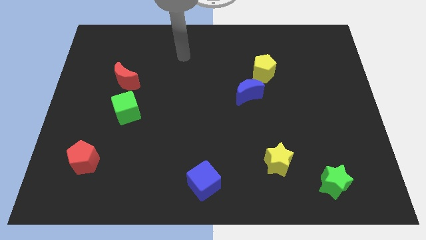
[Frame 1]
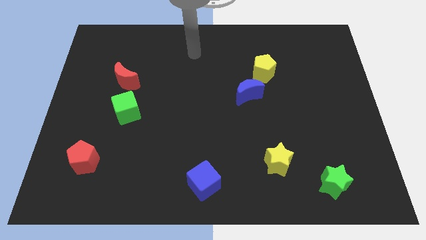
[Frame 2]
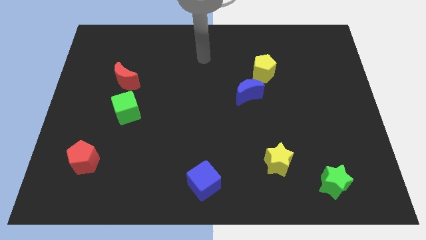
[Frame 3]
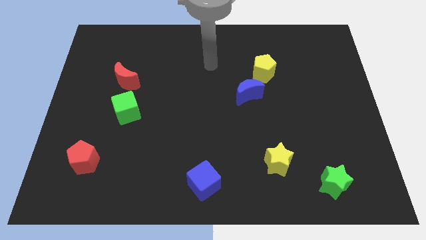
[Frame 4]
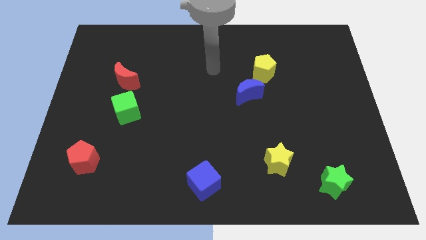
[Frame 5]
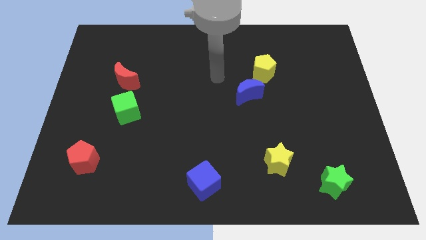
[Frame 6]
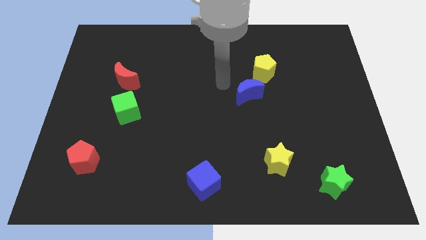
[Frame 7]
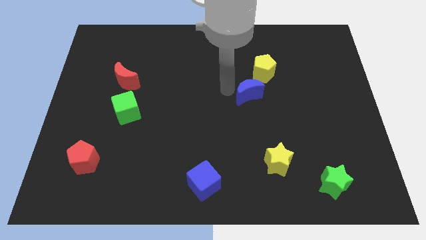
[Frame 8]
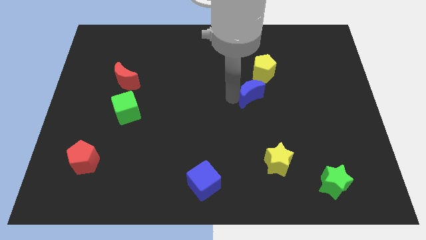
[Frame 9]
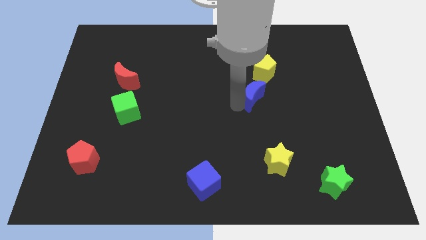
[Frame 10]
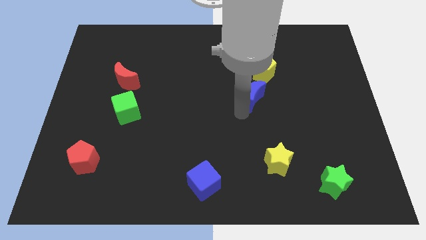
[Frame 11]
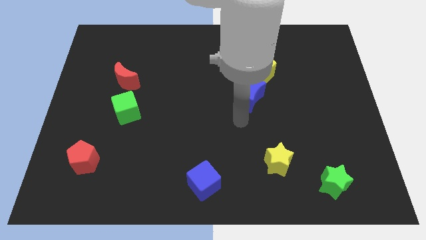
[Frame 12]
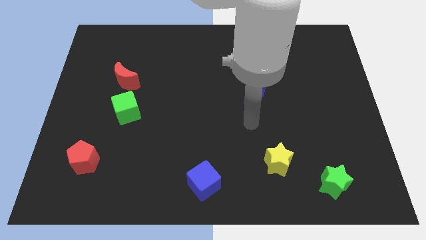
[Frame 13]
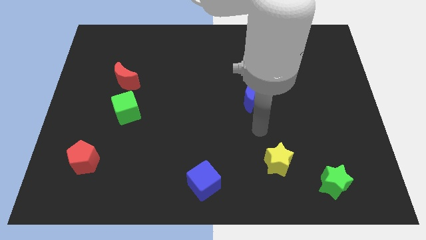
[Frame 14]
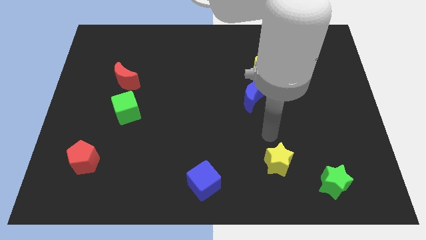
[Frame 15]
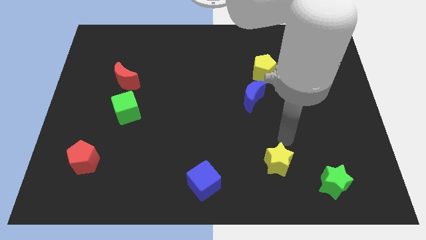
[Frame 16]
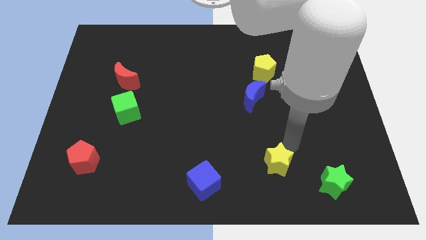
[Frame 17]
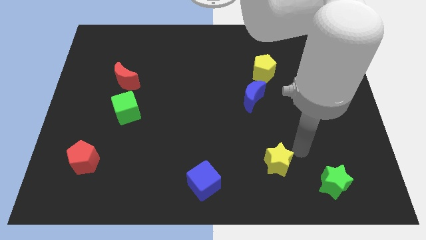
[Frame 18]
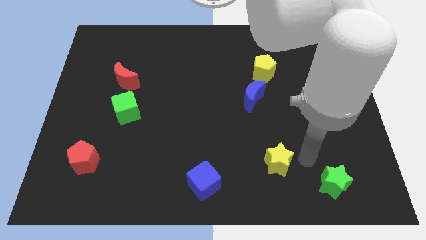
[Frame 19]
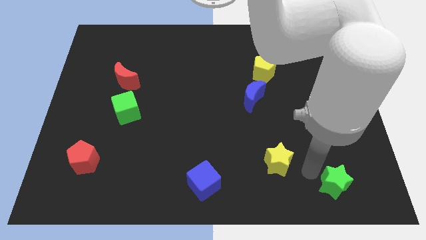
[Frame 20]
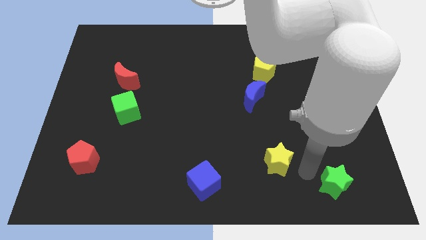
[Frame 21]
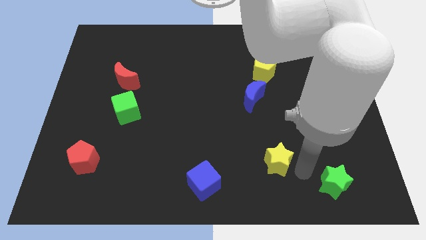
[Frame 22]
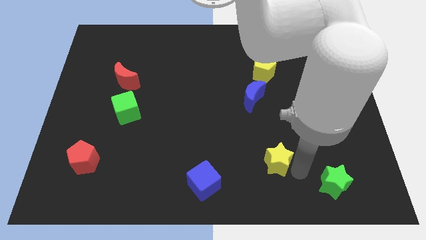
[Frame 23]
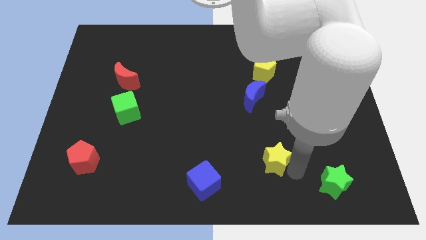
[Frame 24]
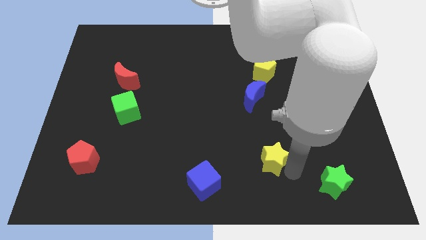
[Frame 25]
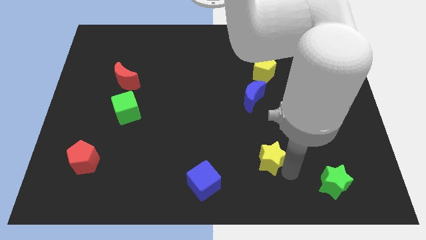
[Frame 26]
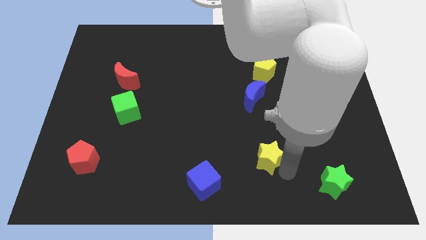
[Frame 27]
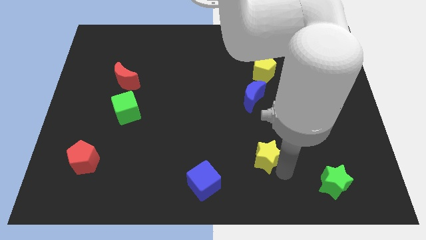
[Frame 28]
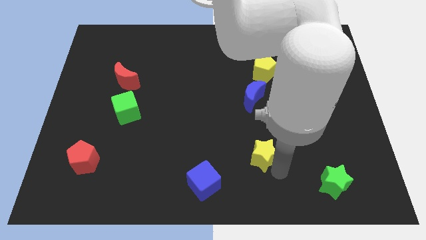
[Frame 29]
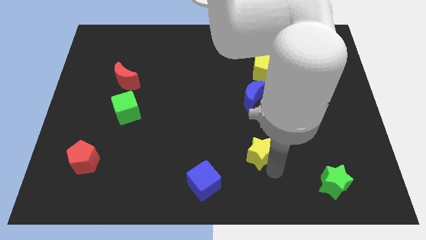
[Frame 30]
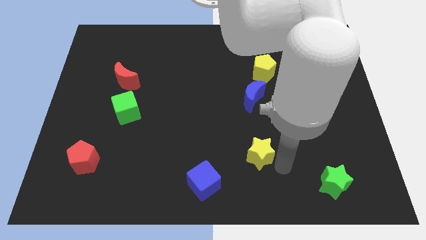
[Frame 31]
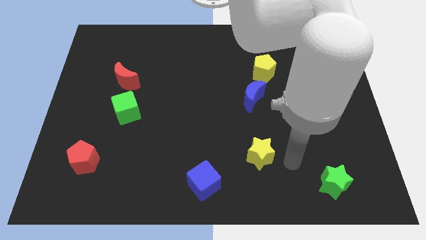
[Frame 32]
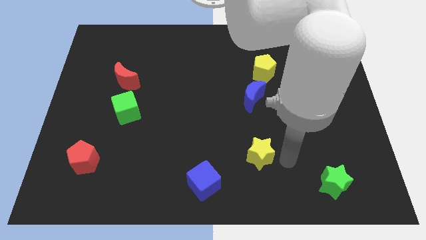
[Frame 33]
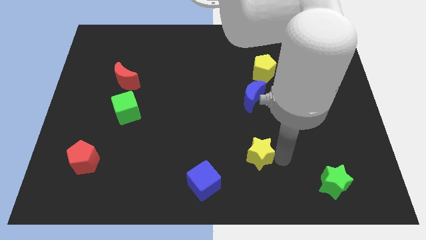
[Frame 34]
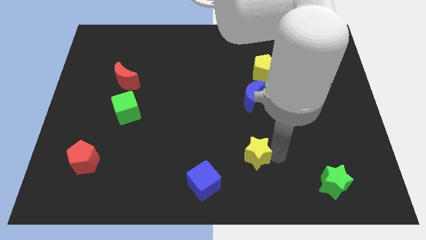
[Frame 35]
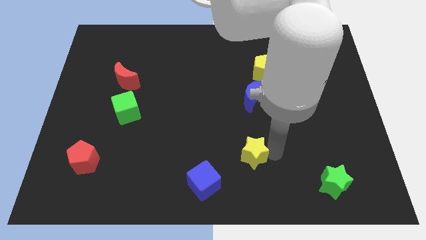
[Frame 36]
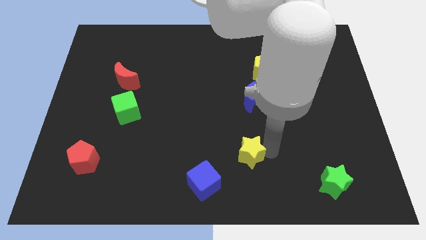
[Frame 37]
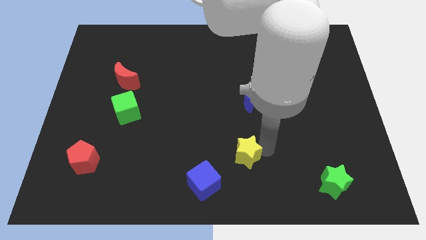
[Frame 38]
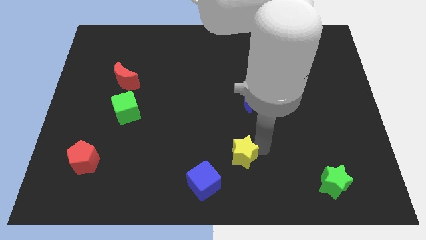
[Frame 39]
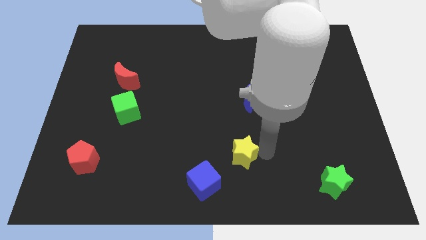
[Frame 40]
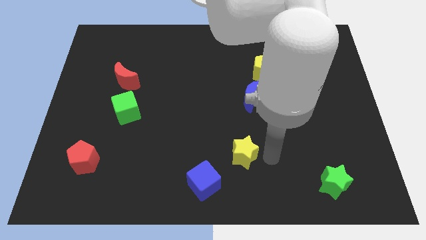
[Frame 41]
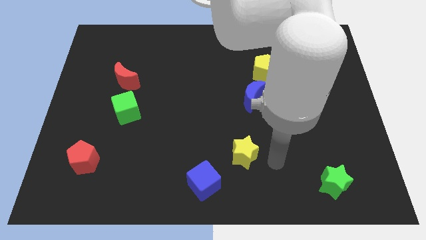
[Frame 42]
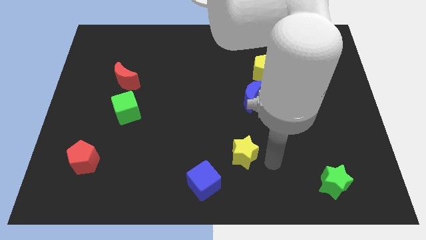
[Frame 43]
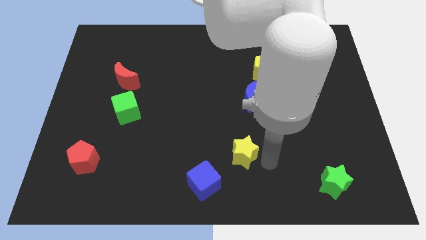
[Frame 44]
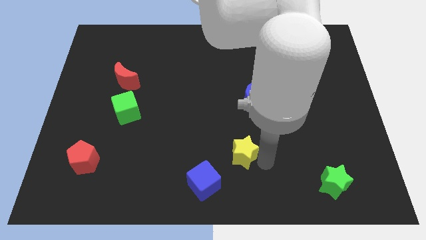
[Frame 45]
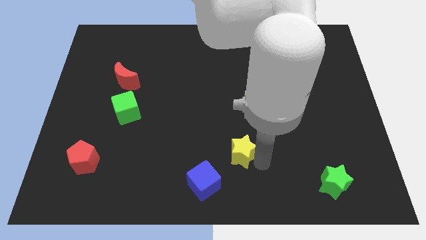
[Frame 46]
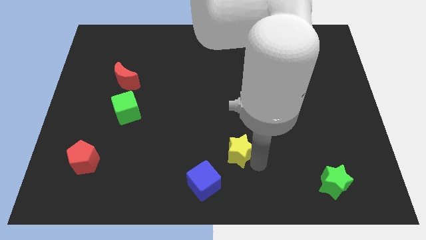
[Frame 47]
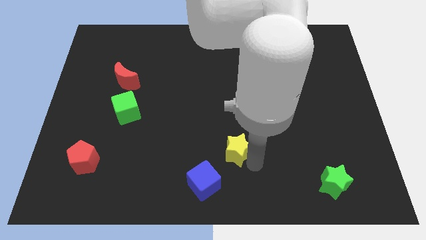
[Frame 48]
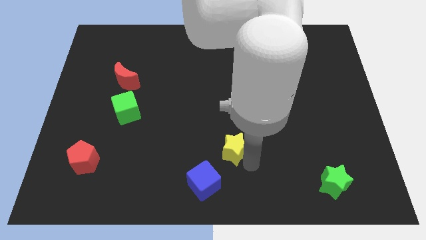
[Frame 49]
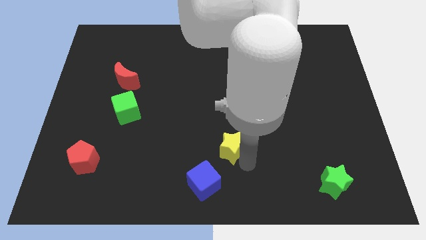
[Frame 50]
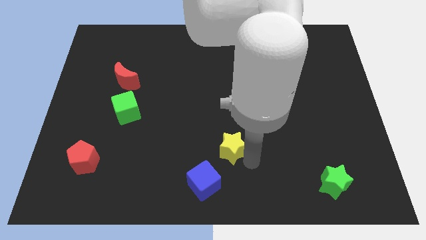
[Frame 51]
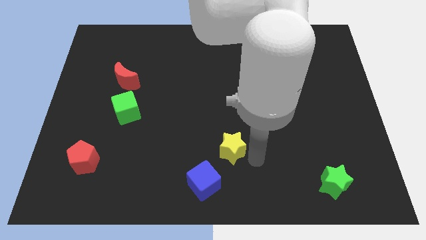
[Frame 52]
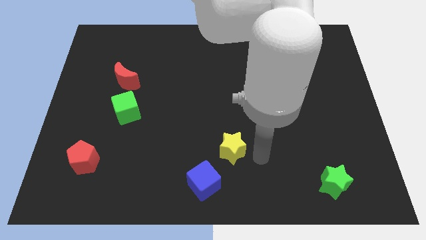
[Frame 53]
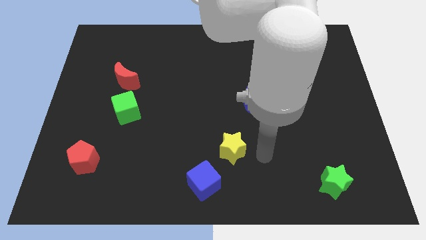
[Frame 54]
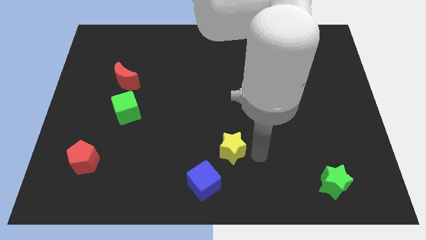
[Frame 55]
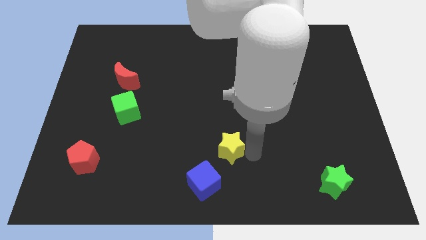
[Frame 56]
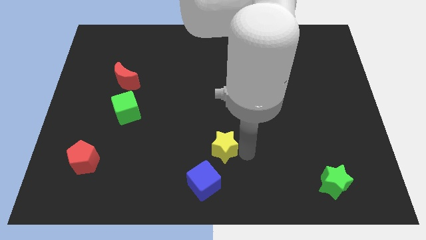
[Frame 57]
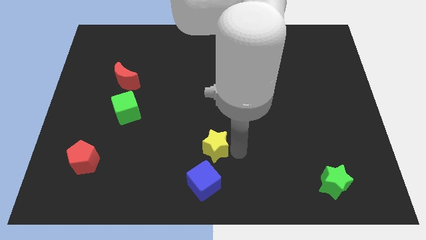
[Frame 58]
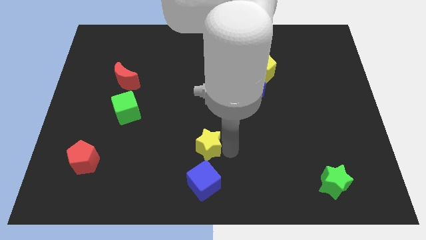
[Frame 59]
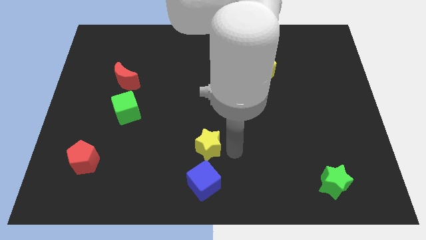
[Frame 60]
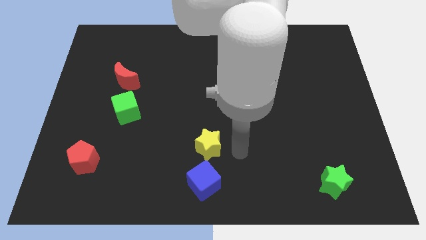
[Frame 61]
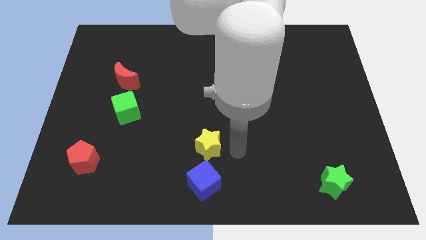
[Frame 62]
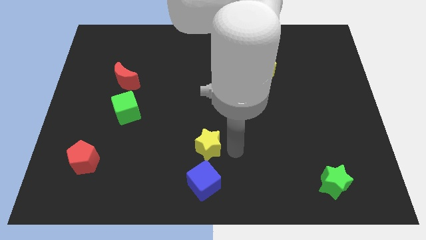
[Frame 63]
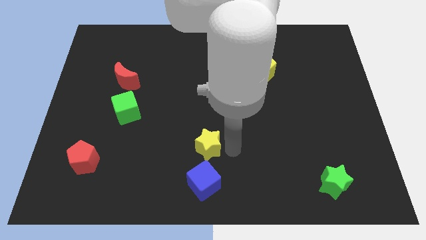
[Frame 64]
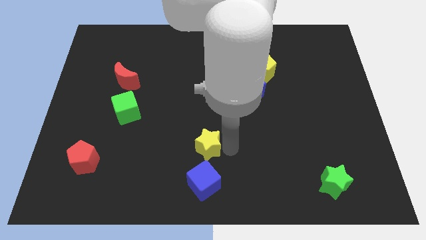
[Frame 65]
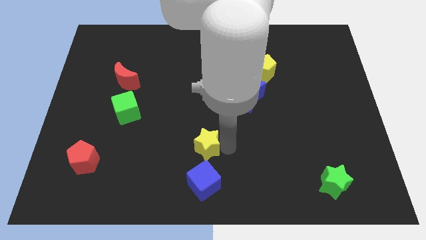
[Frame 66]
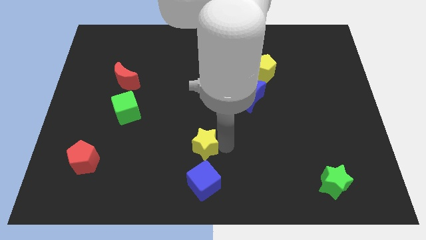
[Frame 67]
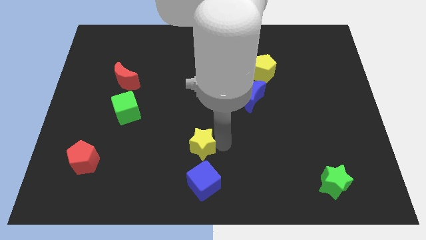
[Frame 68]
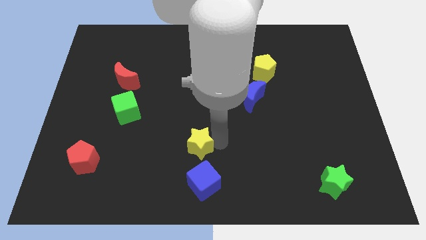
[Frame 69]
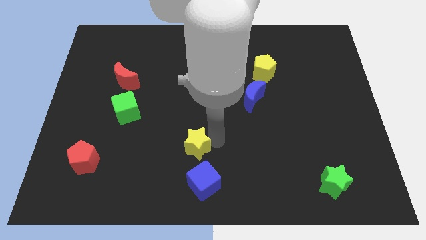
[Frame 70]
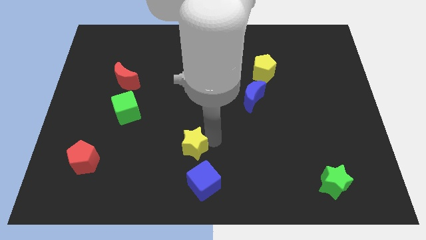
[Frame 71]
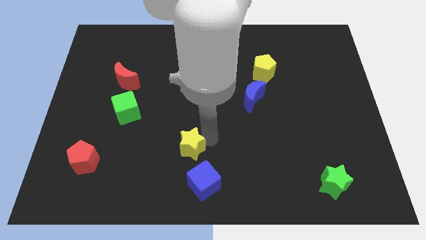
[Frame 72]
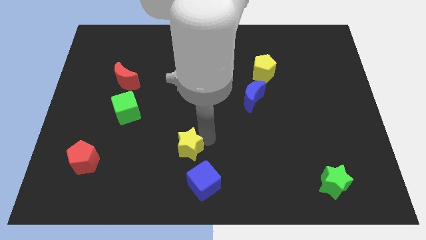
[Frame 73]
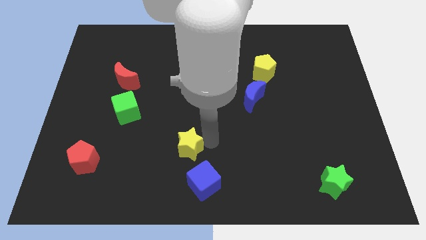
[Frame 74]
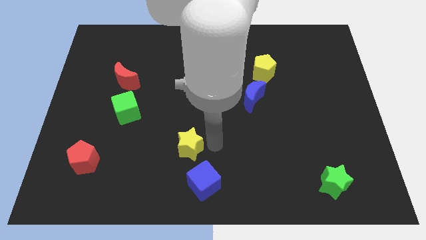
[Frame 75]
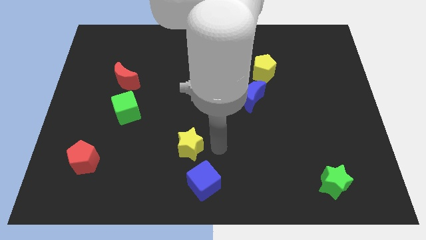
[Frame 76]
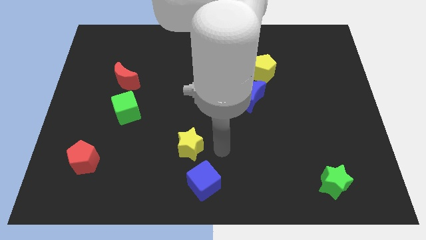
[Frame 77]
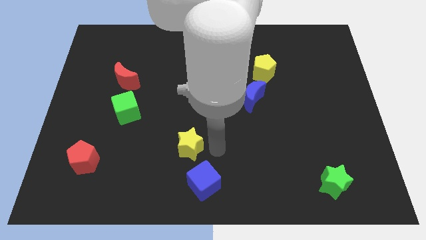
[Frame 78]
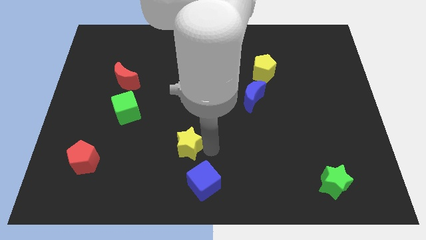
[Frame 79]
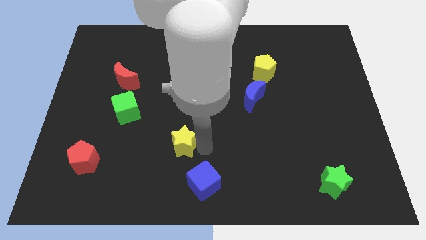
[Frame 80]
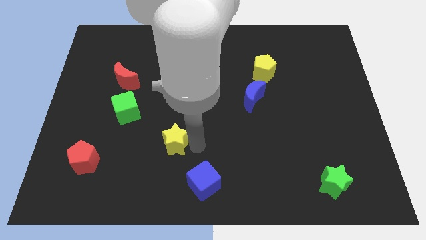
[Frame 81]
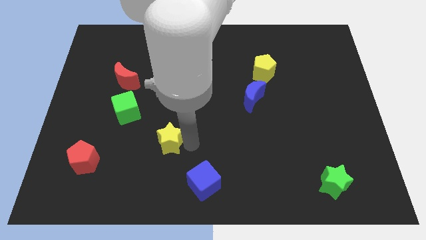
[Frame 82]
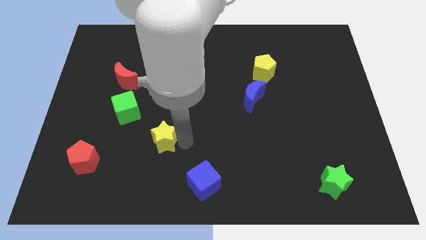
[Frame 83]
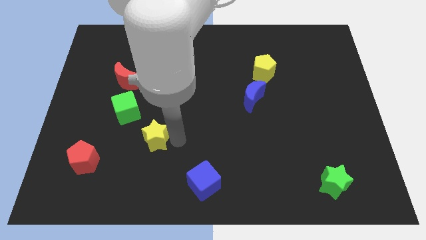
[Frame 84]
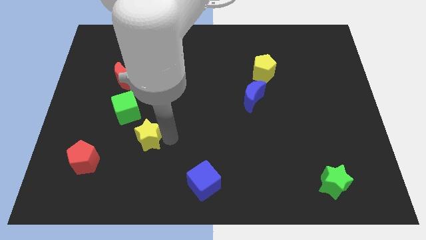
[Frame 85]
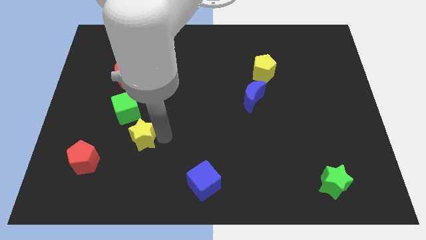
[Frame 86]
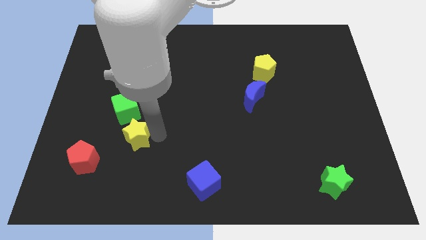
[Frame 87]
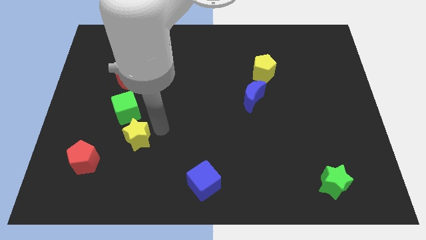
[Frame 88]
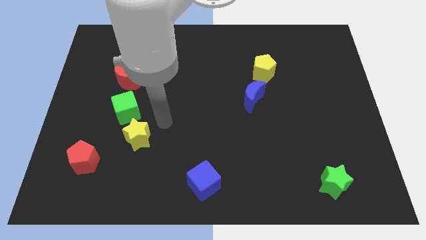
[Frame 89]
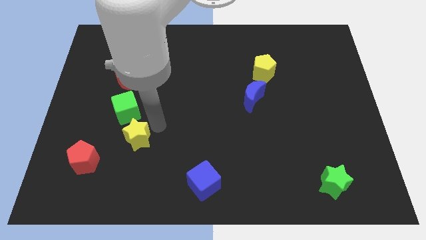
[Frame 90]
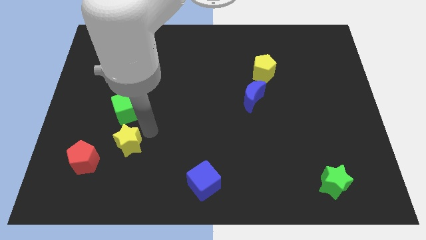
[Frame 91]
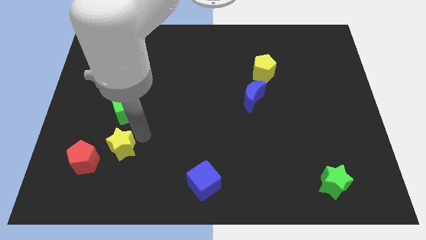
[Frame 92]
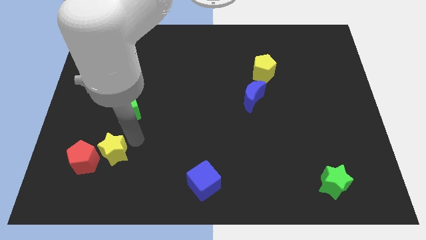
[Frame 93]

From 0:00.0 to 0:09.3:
move the yellow star next to the red pentagon
